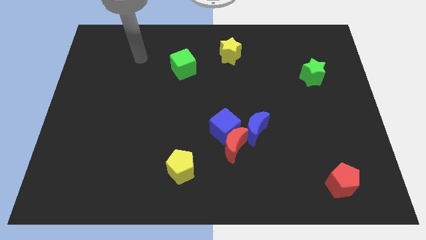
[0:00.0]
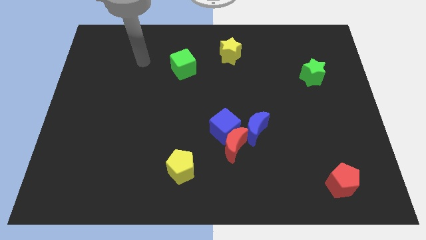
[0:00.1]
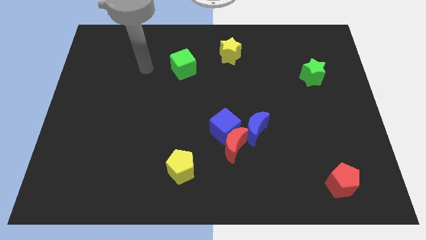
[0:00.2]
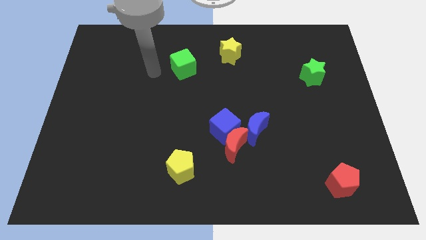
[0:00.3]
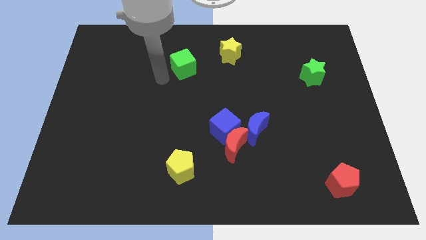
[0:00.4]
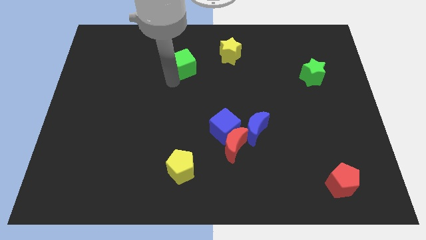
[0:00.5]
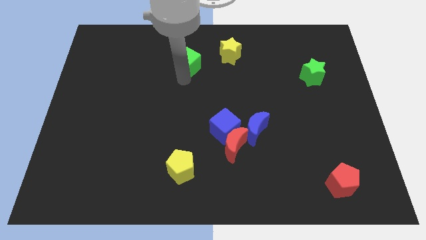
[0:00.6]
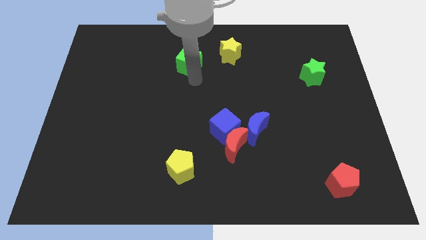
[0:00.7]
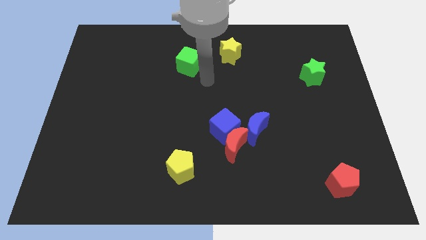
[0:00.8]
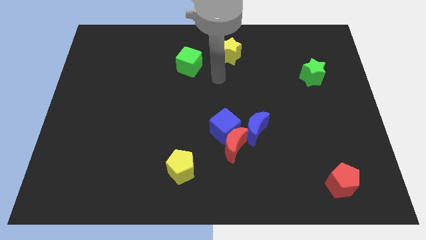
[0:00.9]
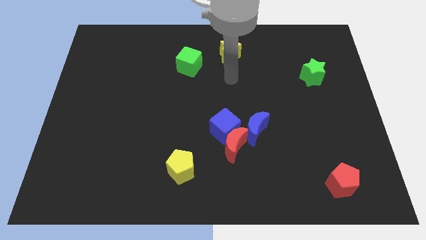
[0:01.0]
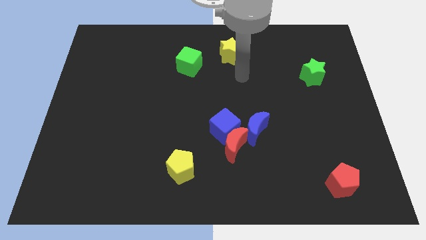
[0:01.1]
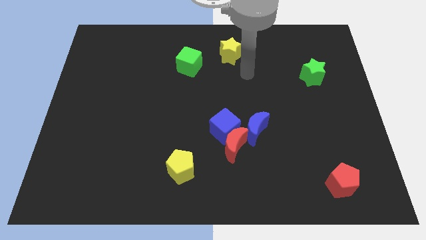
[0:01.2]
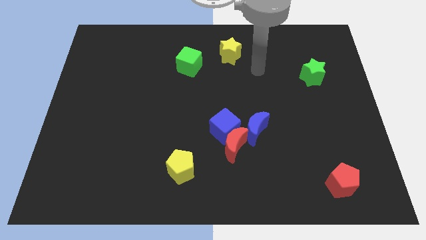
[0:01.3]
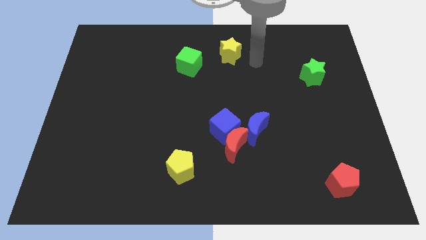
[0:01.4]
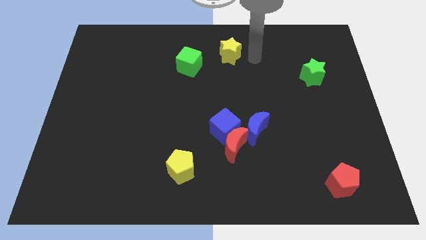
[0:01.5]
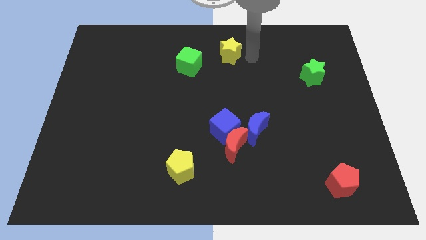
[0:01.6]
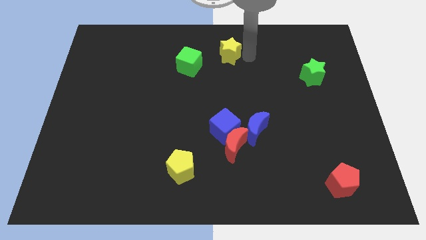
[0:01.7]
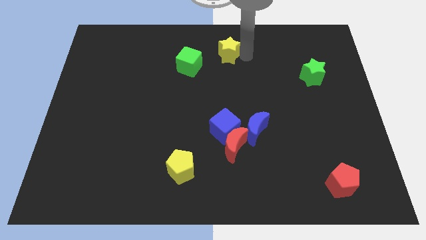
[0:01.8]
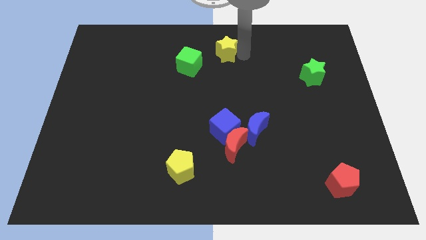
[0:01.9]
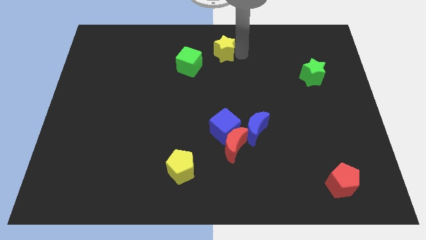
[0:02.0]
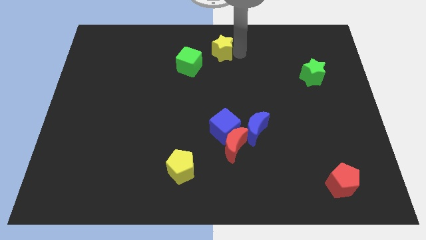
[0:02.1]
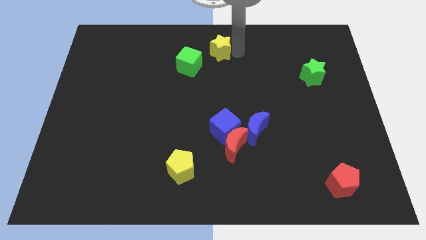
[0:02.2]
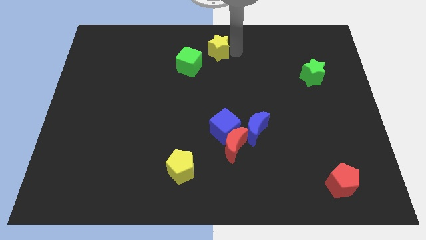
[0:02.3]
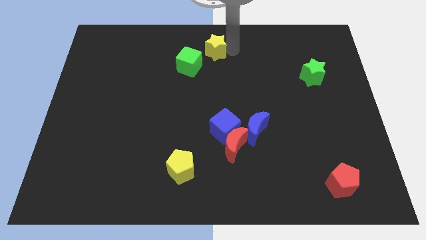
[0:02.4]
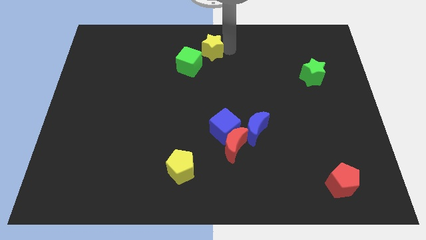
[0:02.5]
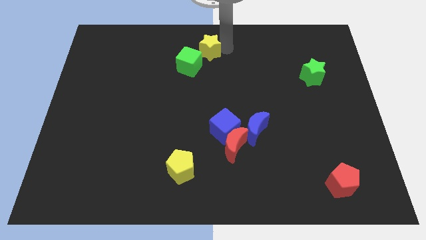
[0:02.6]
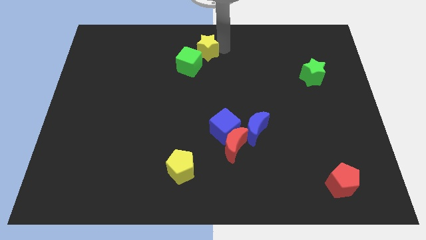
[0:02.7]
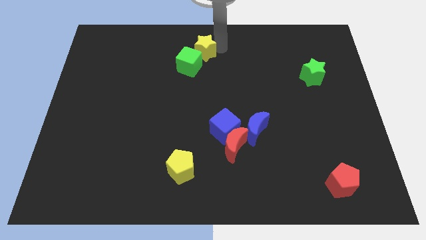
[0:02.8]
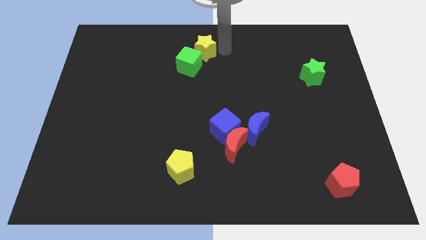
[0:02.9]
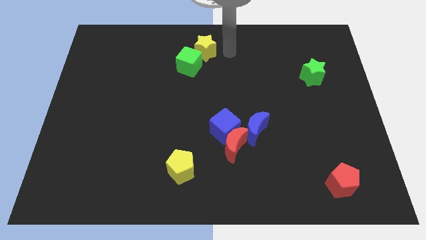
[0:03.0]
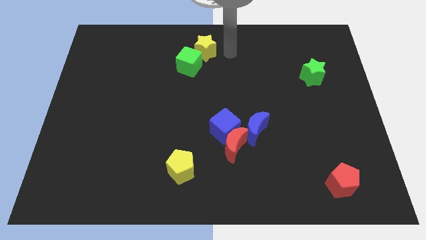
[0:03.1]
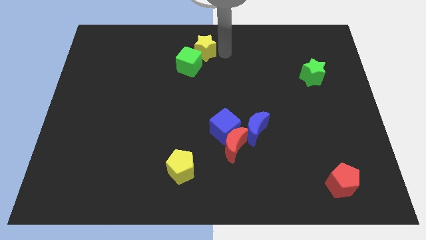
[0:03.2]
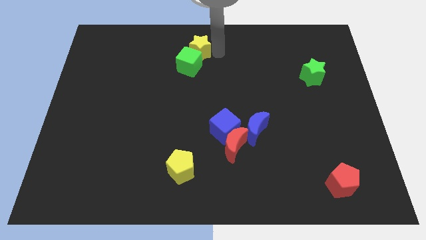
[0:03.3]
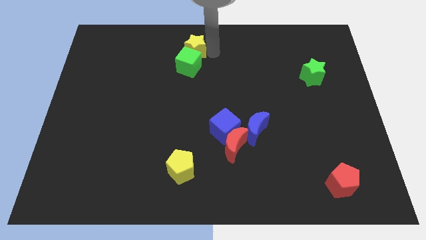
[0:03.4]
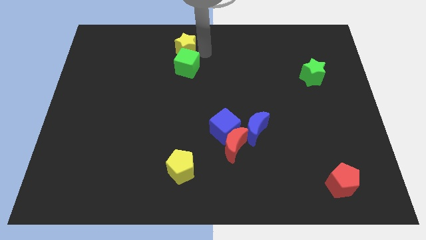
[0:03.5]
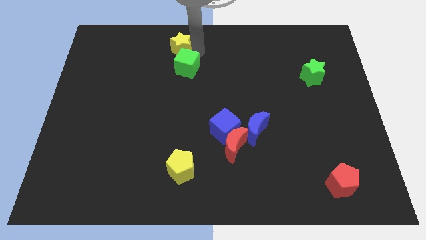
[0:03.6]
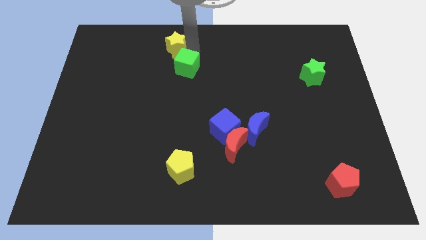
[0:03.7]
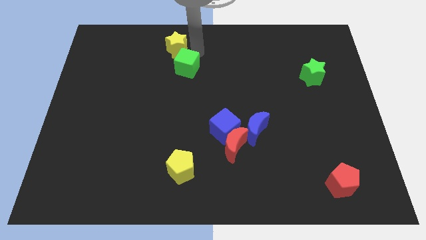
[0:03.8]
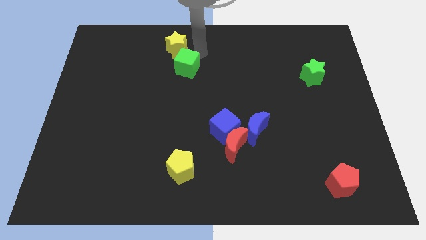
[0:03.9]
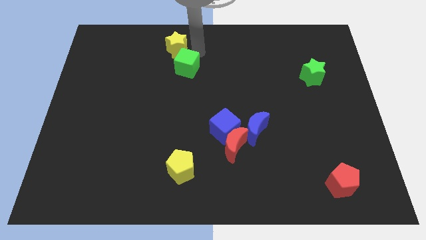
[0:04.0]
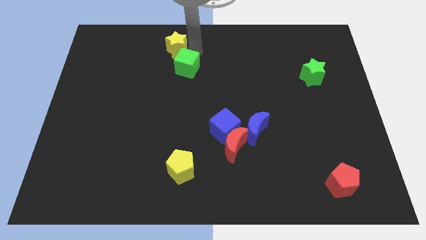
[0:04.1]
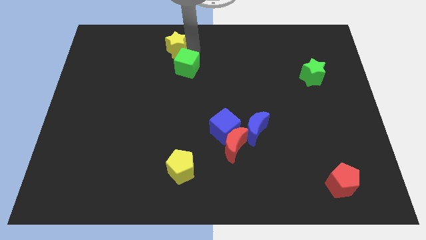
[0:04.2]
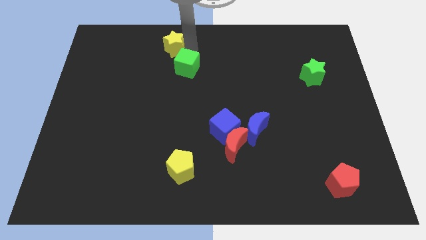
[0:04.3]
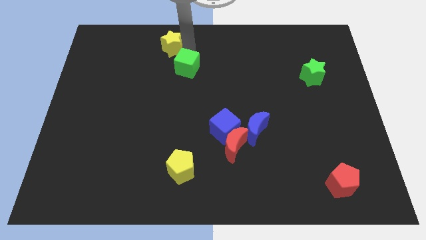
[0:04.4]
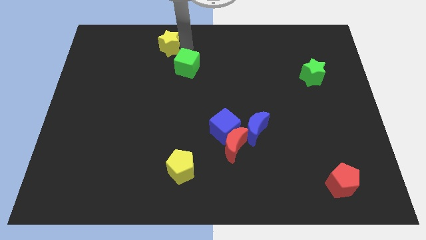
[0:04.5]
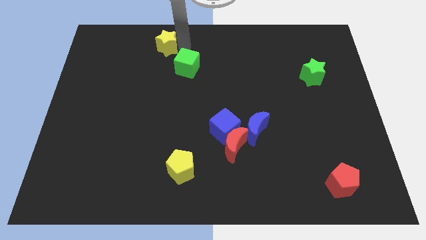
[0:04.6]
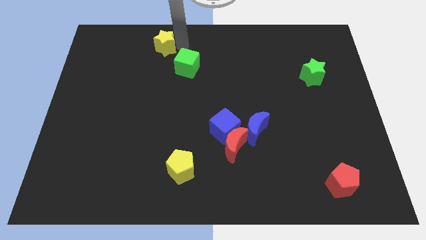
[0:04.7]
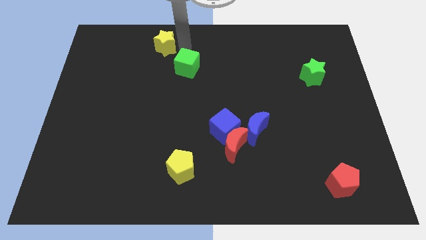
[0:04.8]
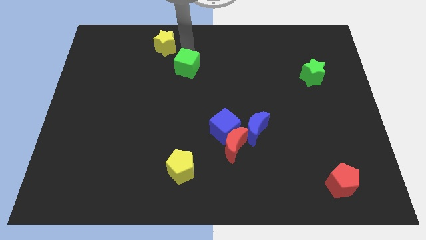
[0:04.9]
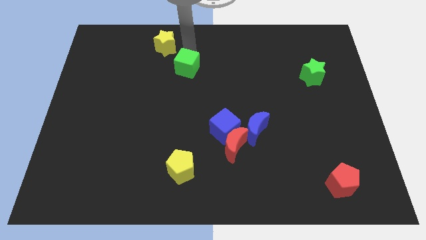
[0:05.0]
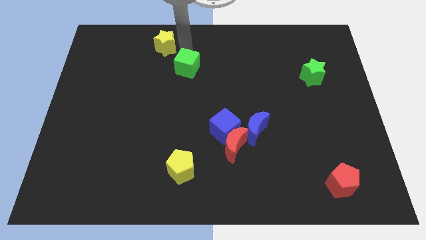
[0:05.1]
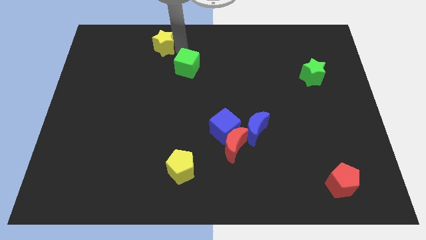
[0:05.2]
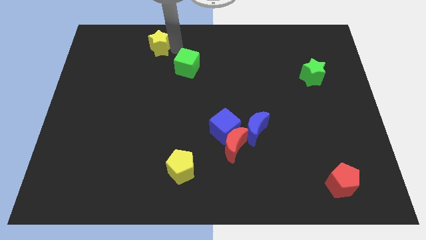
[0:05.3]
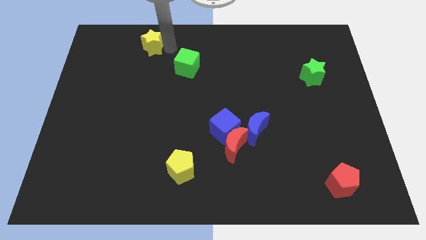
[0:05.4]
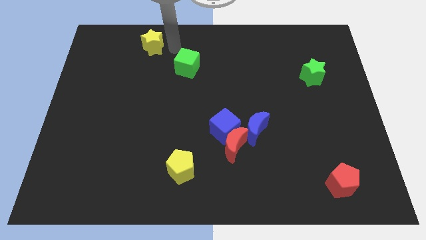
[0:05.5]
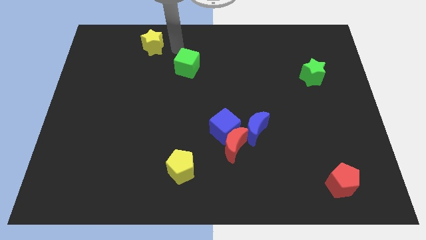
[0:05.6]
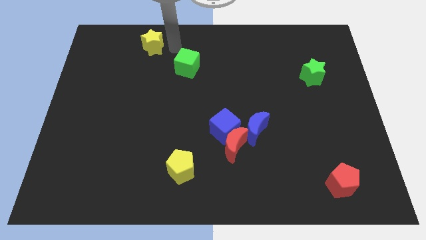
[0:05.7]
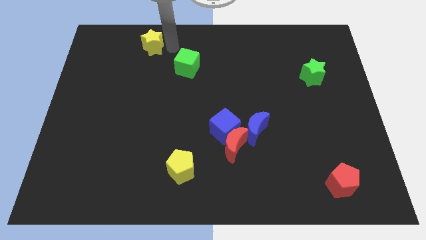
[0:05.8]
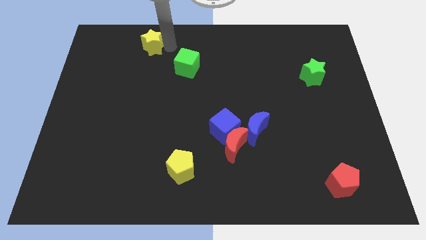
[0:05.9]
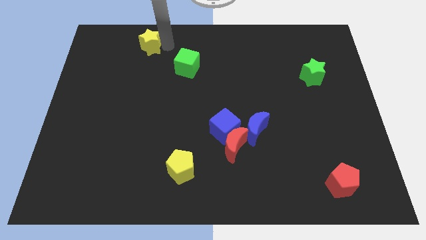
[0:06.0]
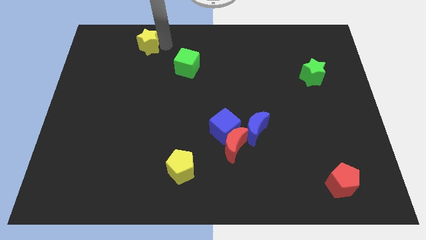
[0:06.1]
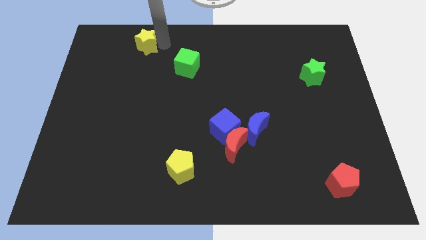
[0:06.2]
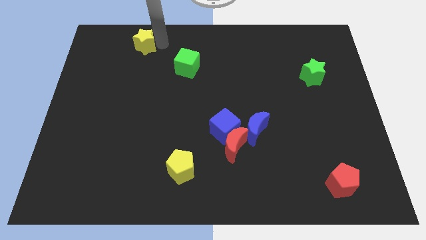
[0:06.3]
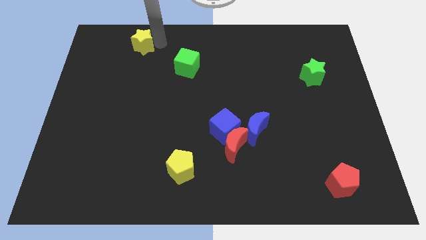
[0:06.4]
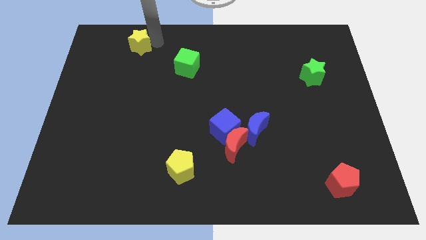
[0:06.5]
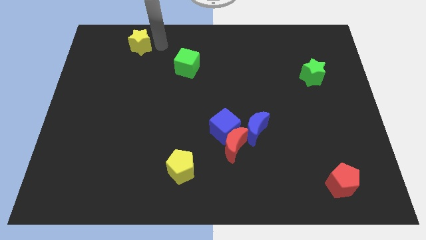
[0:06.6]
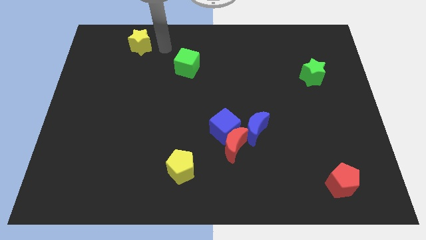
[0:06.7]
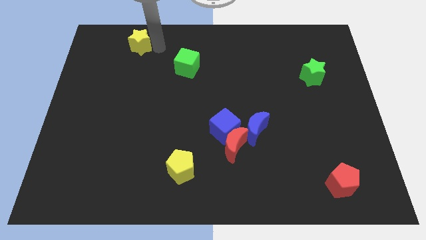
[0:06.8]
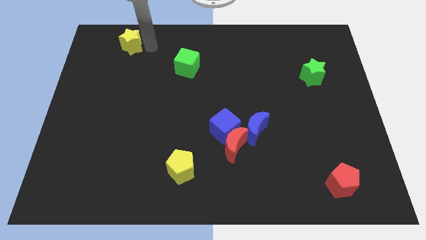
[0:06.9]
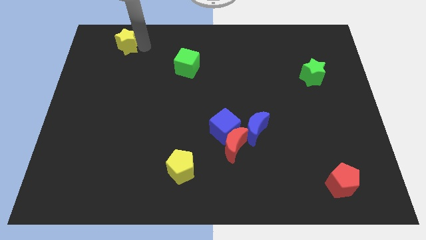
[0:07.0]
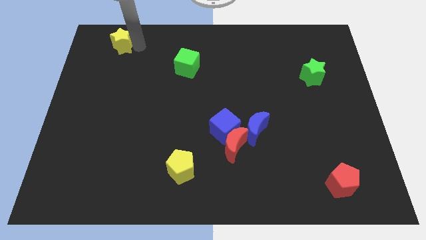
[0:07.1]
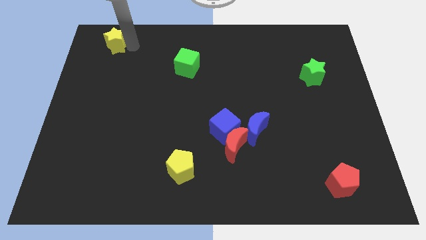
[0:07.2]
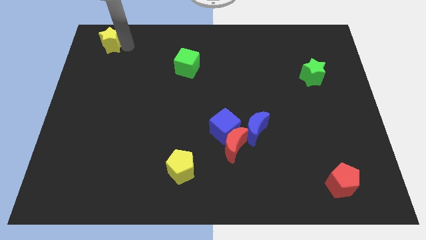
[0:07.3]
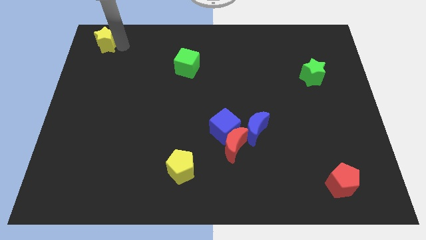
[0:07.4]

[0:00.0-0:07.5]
put the yellow star to the top left of the board
